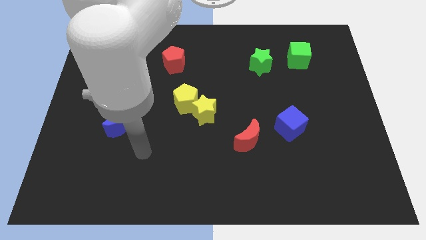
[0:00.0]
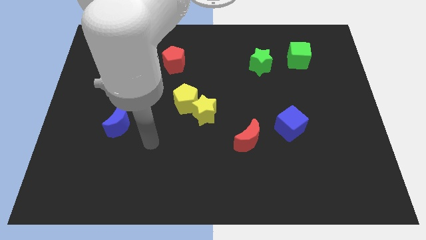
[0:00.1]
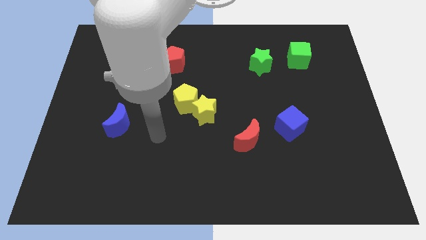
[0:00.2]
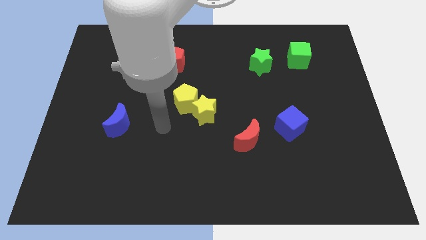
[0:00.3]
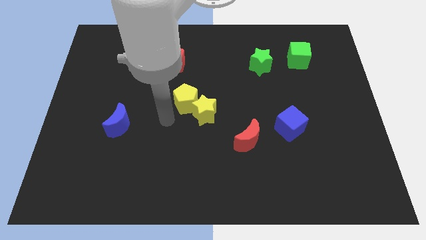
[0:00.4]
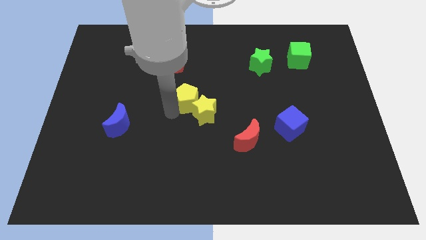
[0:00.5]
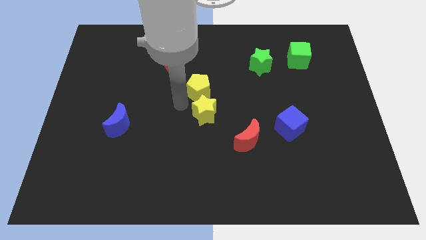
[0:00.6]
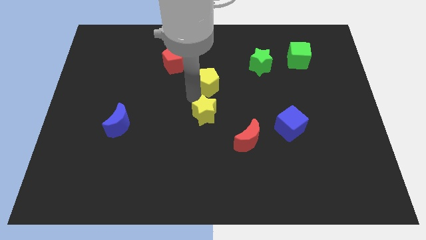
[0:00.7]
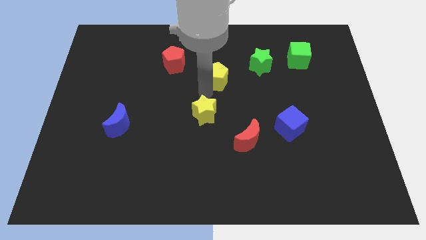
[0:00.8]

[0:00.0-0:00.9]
pull the yellow star apart from the yellow pentagon

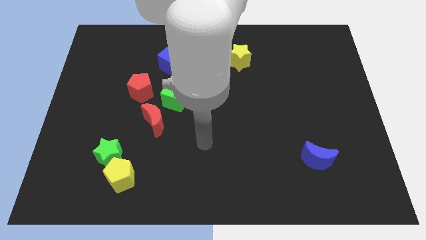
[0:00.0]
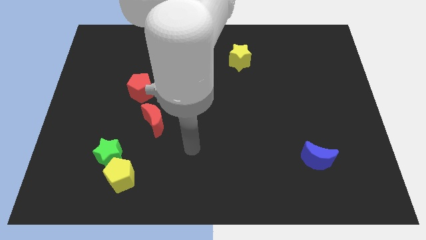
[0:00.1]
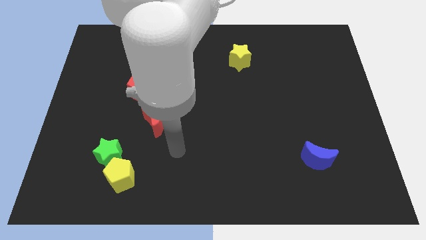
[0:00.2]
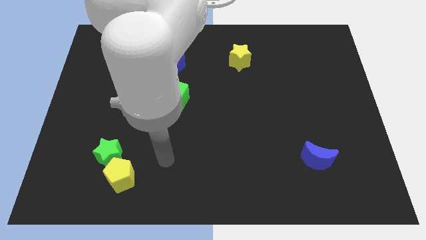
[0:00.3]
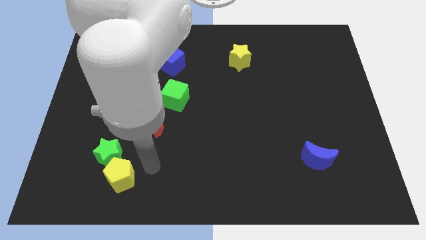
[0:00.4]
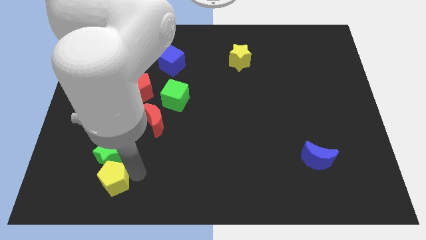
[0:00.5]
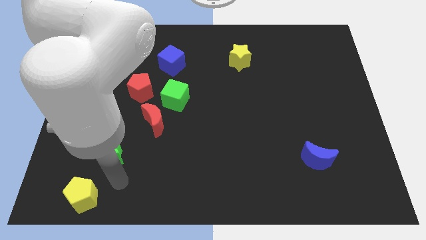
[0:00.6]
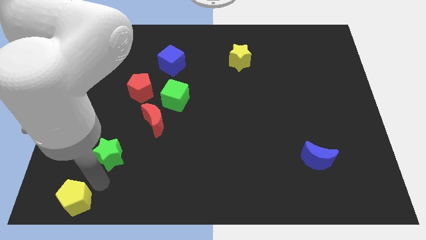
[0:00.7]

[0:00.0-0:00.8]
pull the green star apart from the yellow pentagon

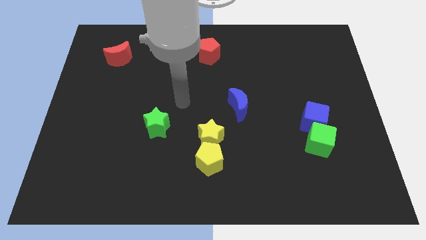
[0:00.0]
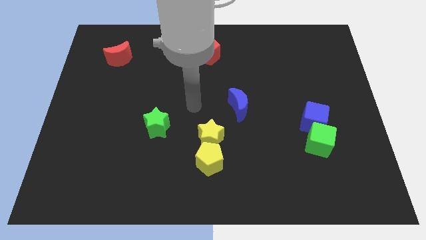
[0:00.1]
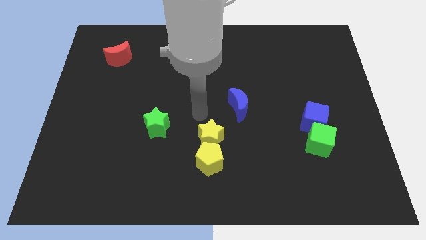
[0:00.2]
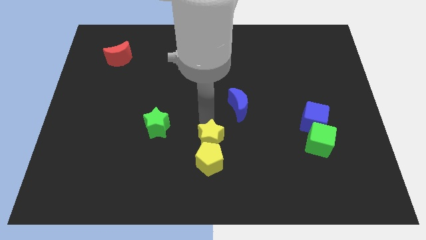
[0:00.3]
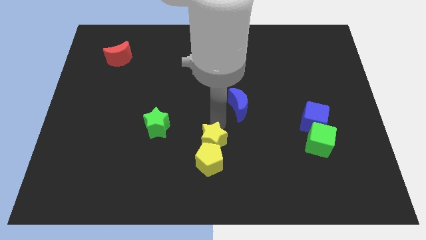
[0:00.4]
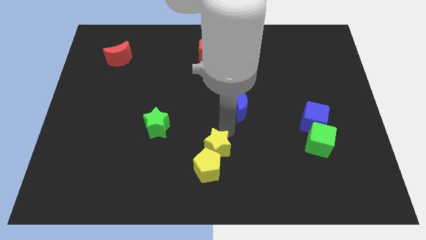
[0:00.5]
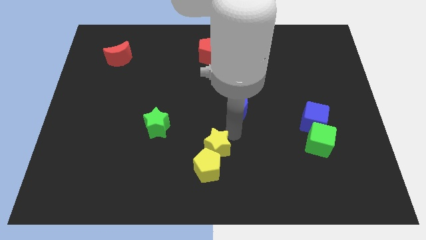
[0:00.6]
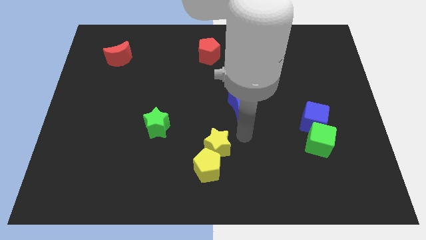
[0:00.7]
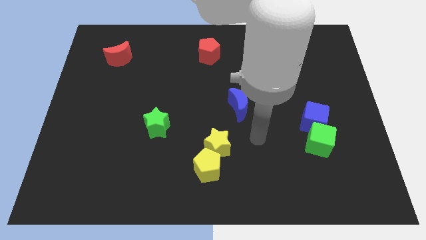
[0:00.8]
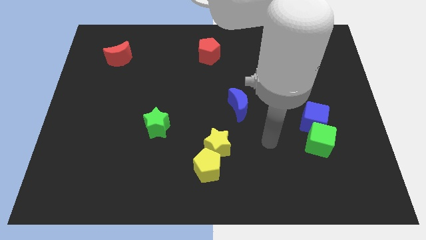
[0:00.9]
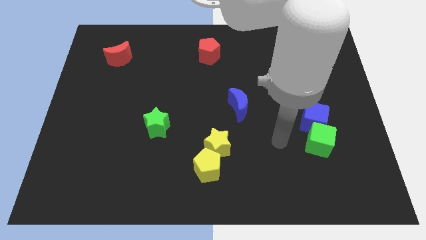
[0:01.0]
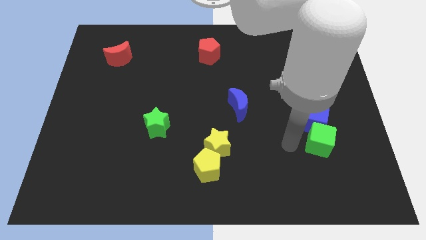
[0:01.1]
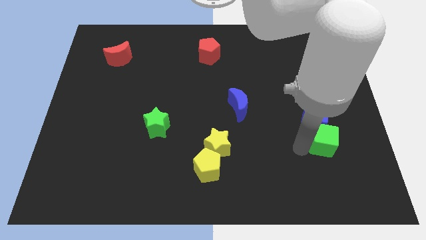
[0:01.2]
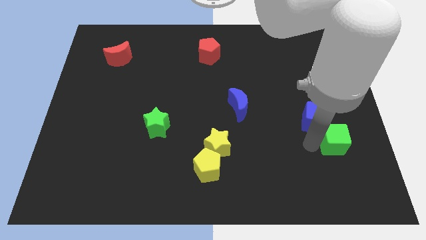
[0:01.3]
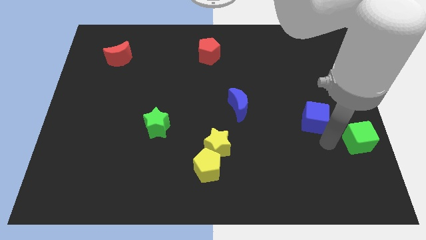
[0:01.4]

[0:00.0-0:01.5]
pull the blue cube apart from the green cube

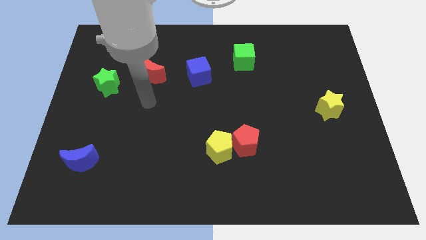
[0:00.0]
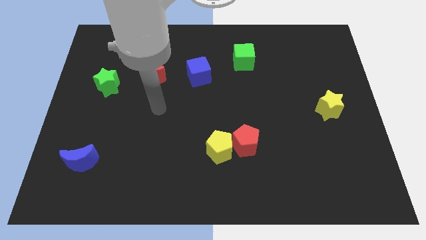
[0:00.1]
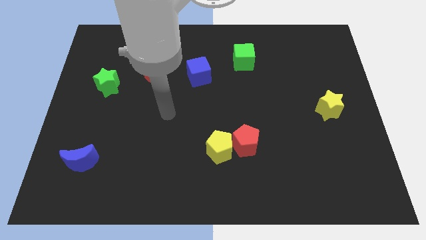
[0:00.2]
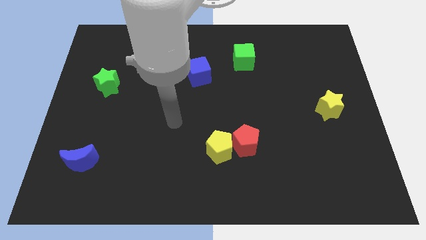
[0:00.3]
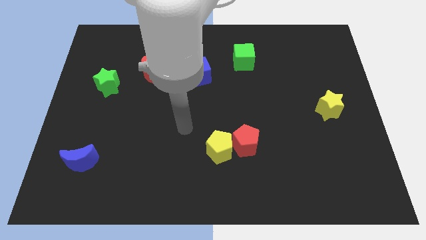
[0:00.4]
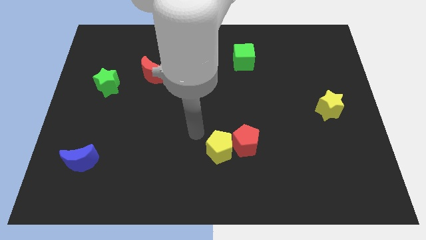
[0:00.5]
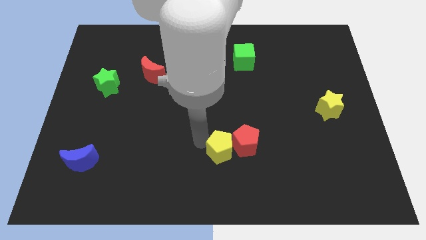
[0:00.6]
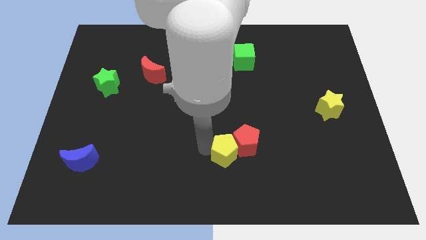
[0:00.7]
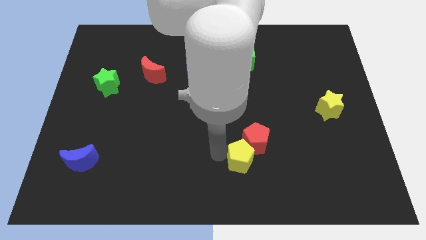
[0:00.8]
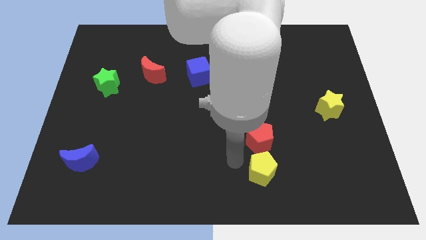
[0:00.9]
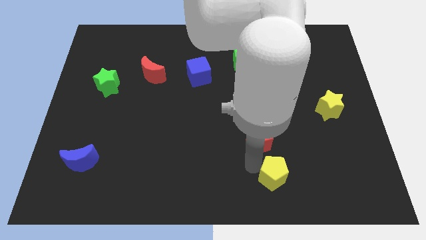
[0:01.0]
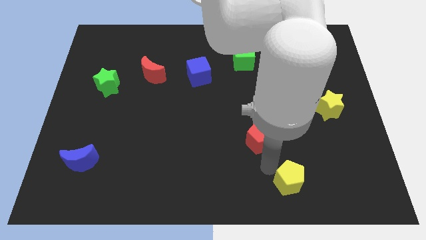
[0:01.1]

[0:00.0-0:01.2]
pull the red pentagon apart from the yellow pentagon

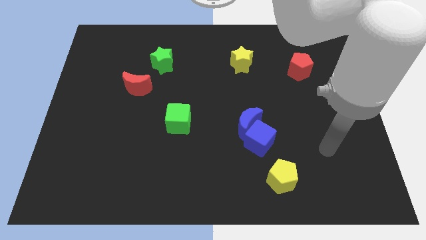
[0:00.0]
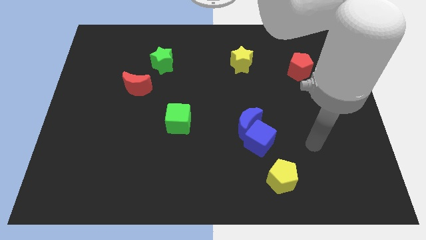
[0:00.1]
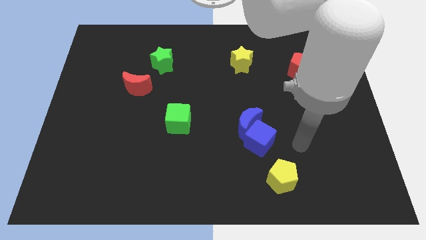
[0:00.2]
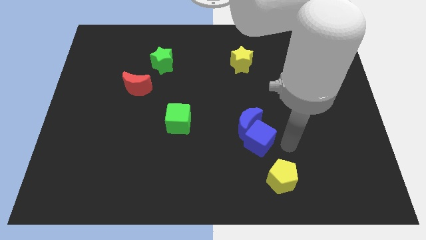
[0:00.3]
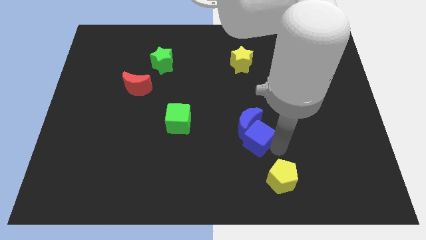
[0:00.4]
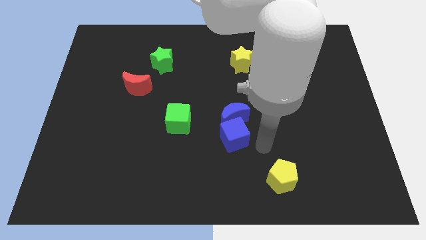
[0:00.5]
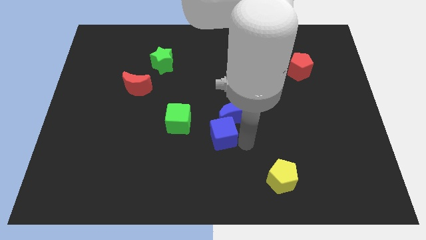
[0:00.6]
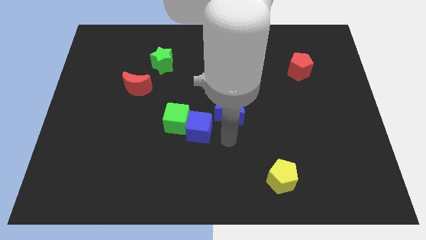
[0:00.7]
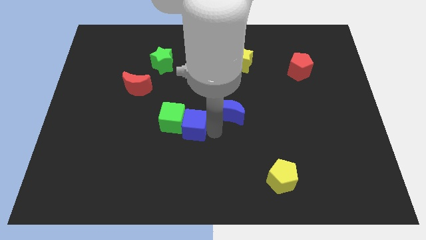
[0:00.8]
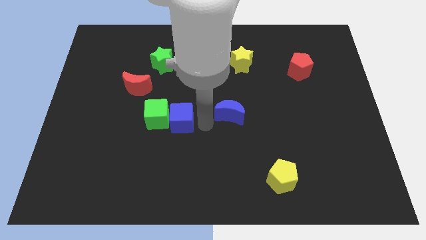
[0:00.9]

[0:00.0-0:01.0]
separate the blue moon from the blue cube

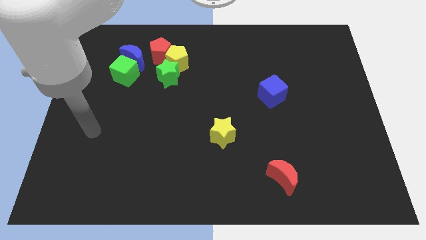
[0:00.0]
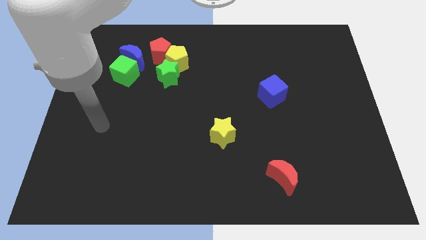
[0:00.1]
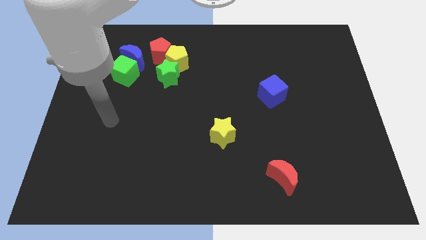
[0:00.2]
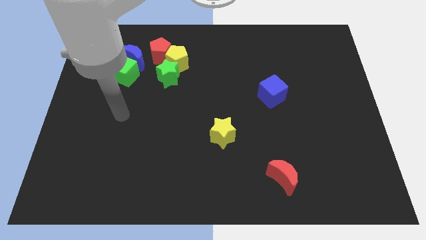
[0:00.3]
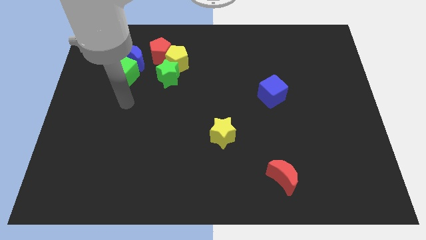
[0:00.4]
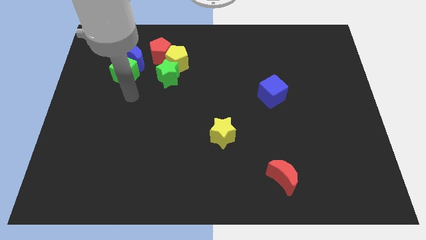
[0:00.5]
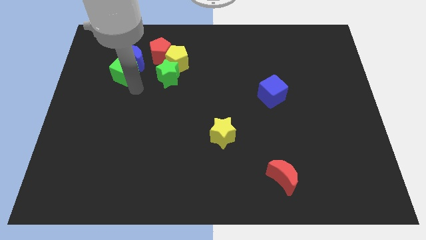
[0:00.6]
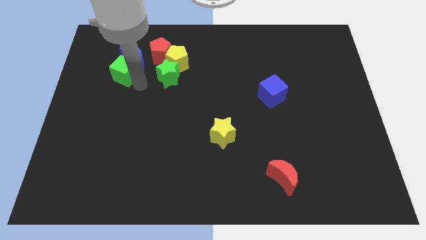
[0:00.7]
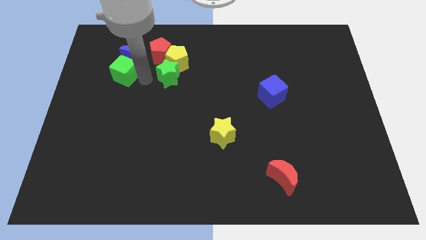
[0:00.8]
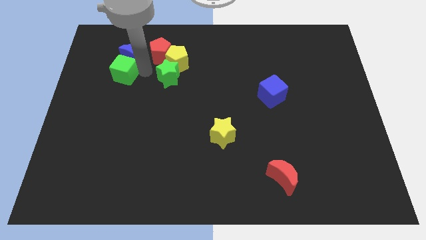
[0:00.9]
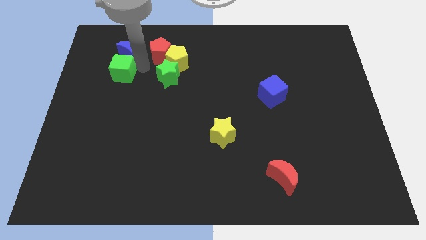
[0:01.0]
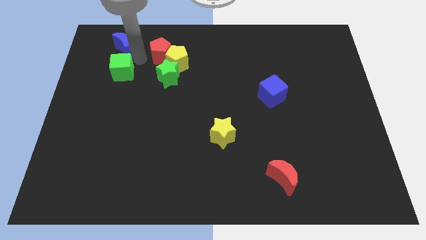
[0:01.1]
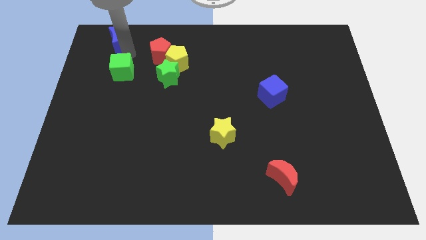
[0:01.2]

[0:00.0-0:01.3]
move the green cube away from the blue moon

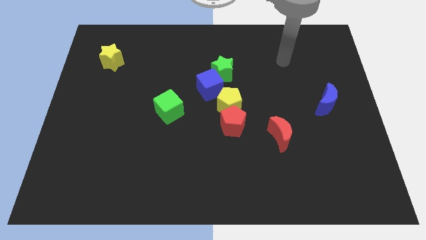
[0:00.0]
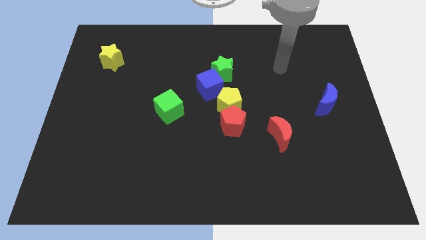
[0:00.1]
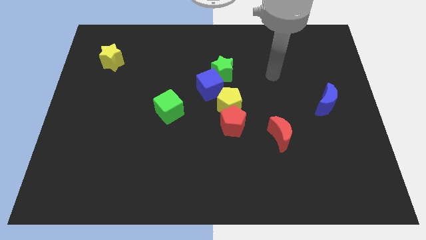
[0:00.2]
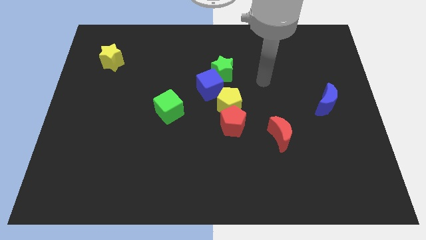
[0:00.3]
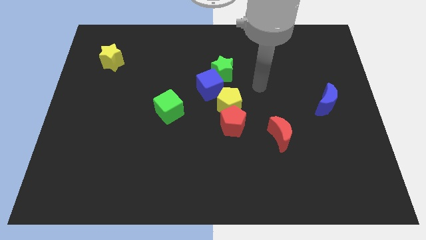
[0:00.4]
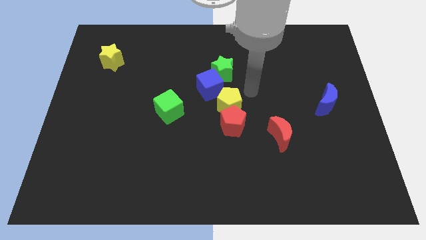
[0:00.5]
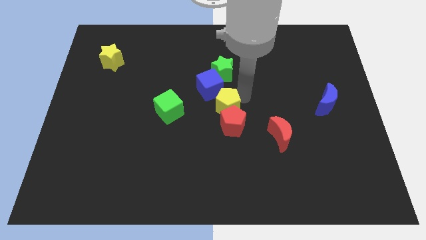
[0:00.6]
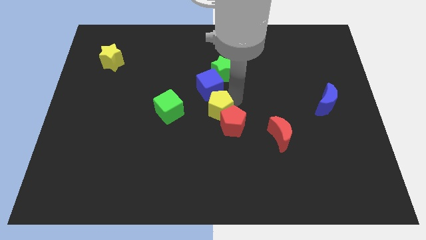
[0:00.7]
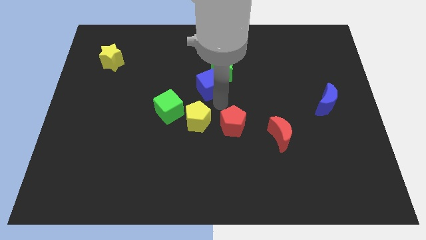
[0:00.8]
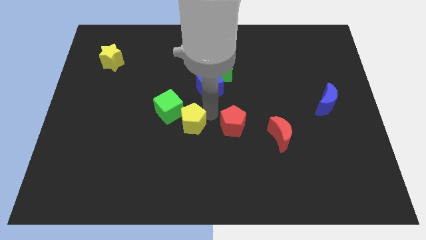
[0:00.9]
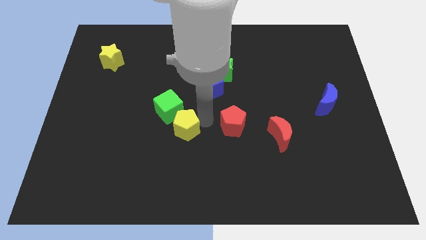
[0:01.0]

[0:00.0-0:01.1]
move the red pentagon away from the yellow pentagon

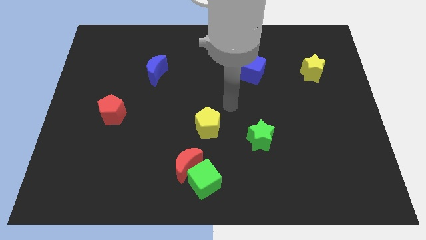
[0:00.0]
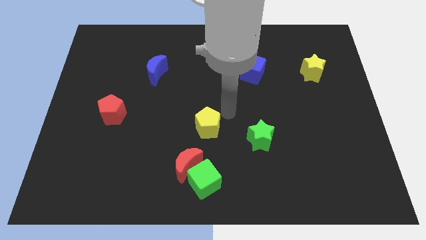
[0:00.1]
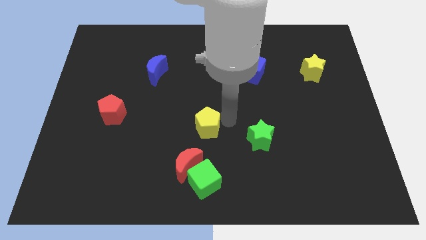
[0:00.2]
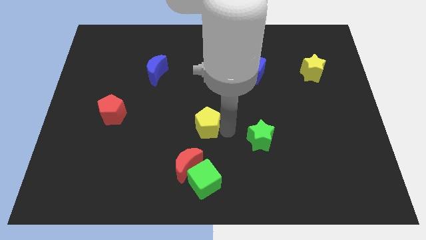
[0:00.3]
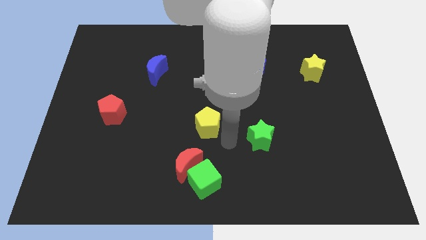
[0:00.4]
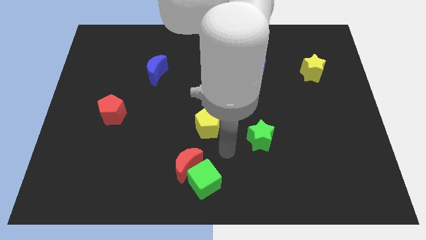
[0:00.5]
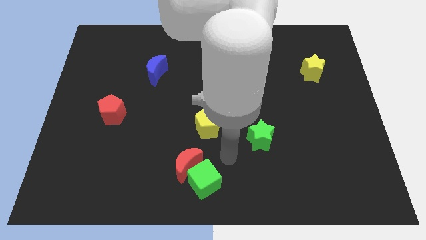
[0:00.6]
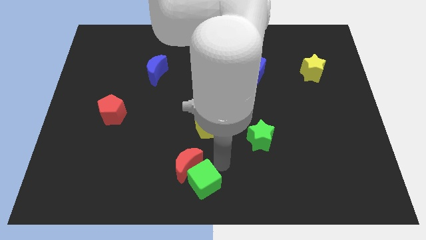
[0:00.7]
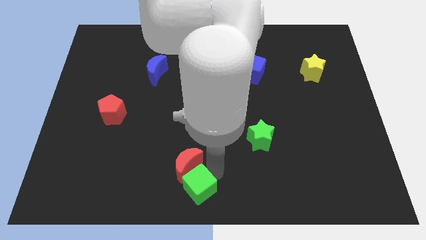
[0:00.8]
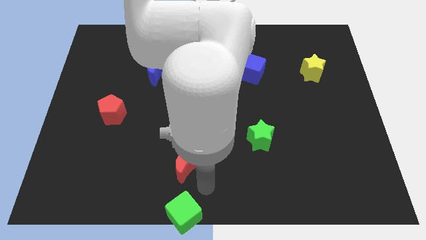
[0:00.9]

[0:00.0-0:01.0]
pull the red moon apart from the green cube

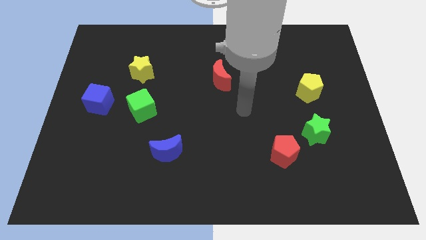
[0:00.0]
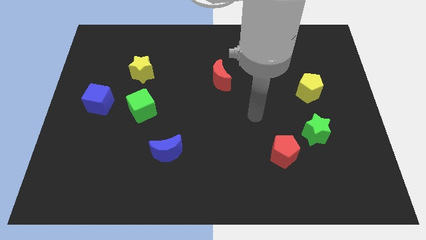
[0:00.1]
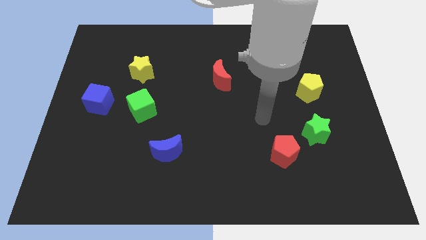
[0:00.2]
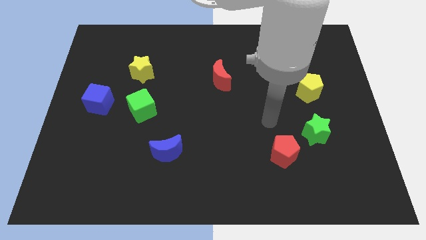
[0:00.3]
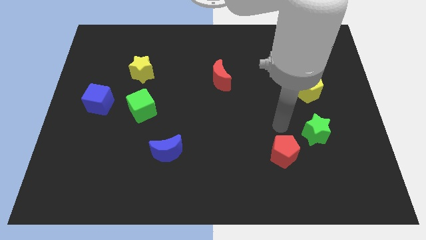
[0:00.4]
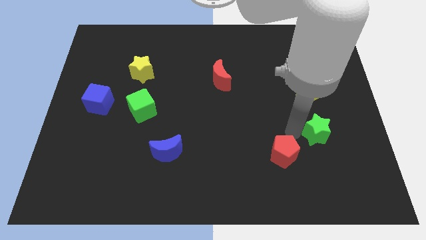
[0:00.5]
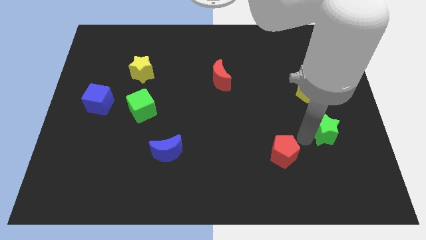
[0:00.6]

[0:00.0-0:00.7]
pull the red pentagon apart from the green star
